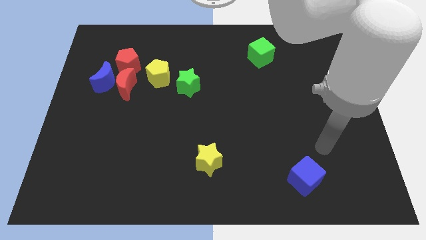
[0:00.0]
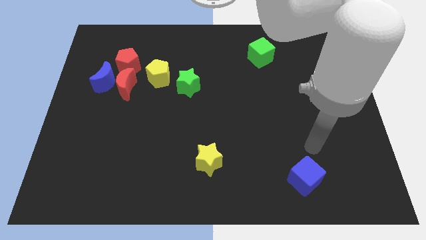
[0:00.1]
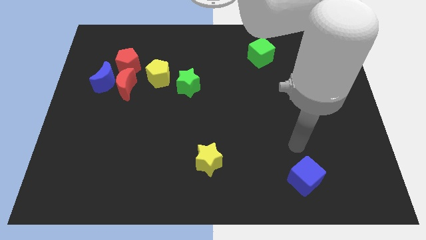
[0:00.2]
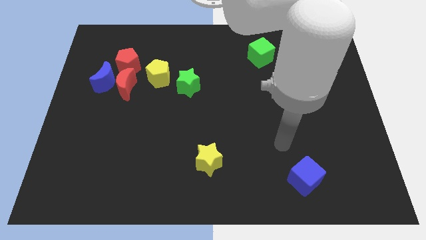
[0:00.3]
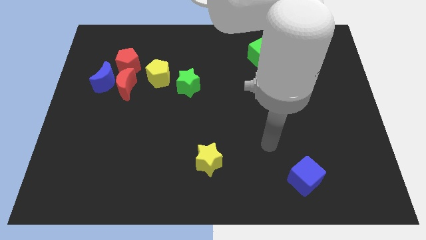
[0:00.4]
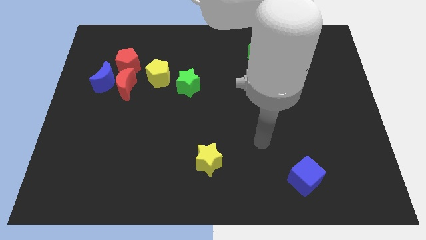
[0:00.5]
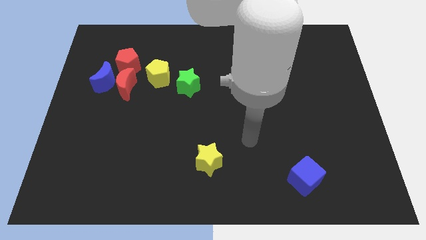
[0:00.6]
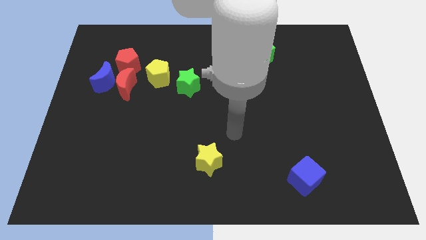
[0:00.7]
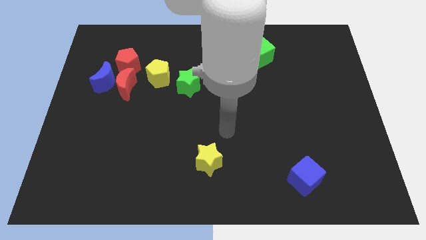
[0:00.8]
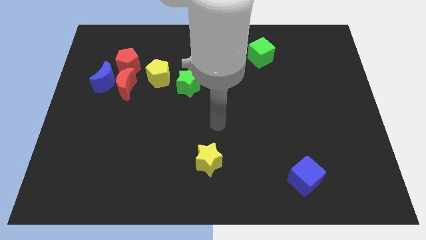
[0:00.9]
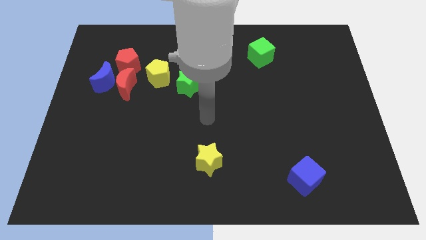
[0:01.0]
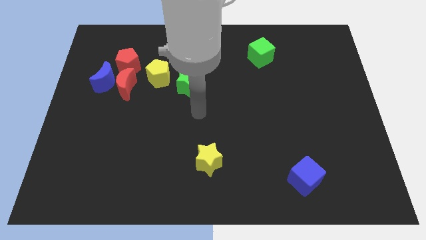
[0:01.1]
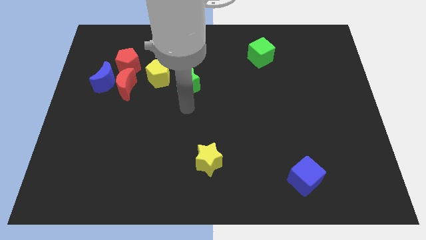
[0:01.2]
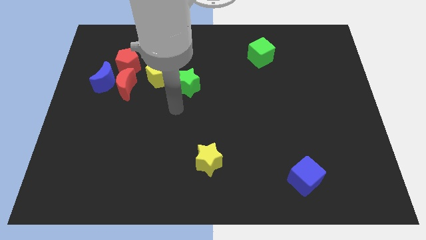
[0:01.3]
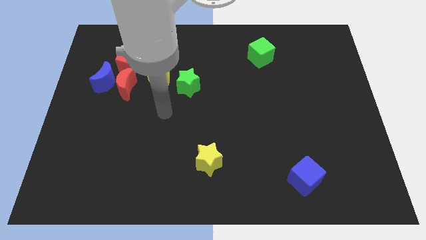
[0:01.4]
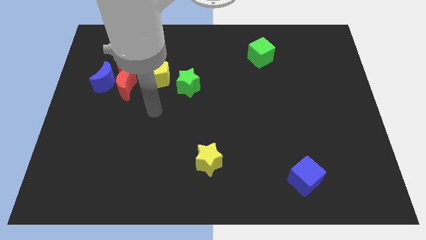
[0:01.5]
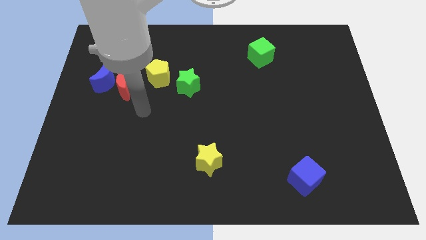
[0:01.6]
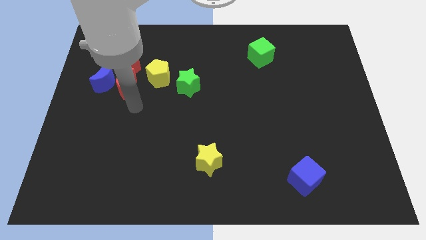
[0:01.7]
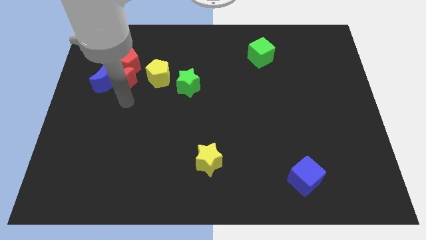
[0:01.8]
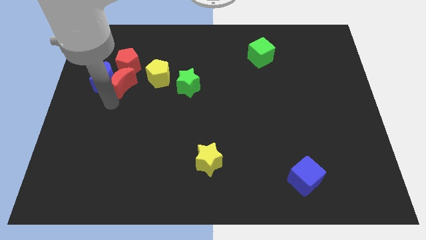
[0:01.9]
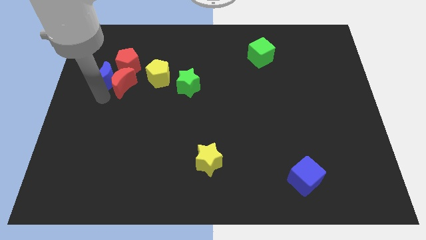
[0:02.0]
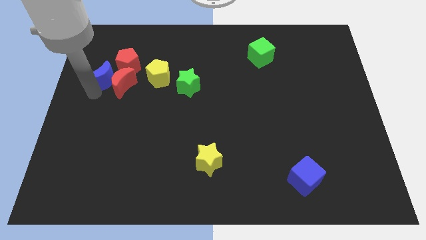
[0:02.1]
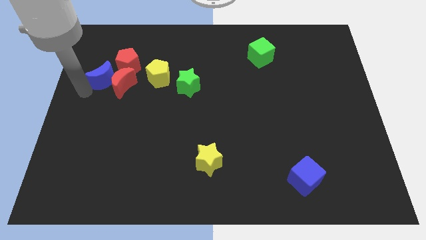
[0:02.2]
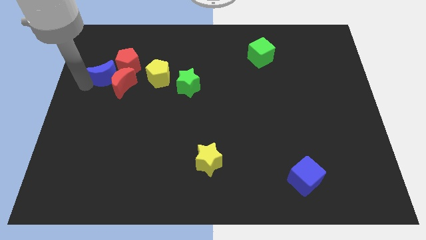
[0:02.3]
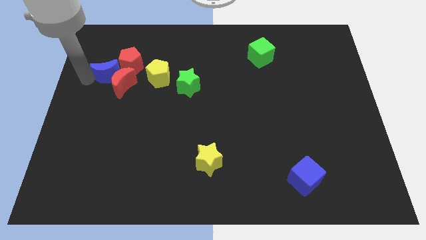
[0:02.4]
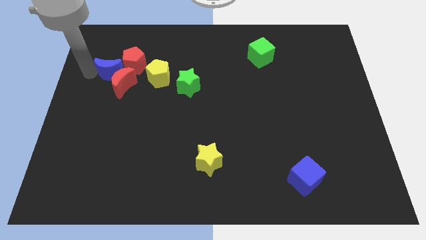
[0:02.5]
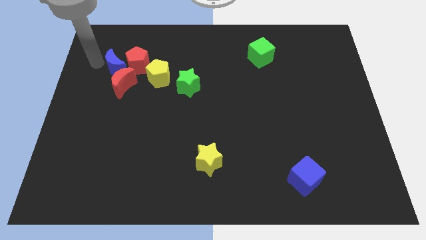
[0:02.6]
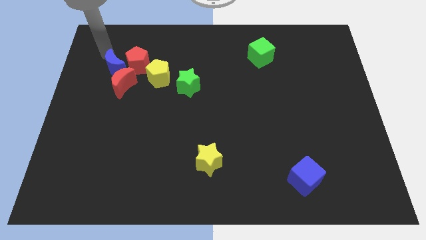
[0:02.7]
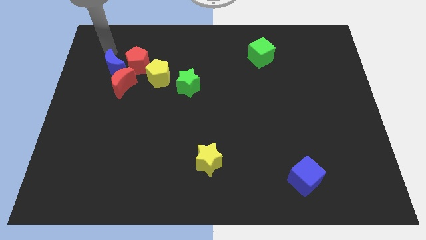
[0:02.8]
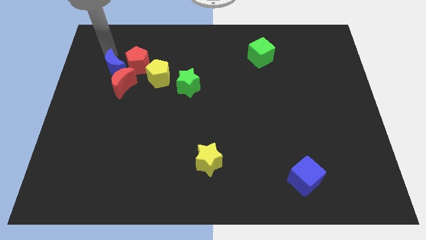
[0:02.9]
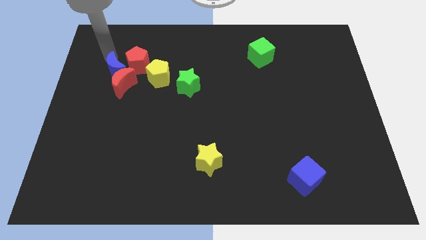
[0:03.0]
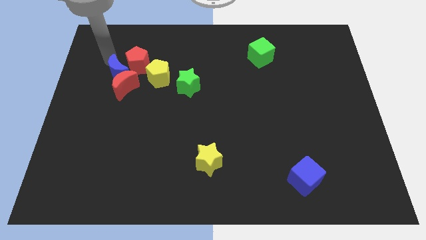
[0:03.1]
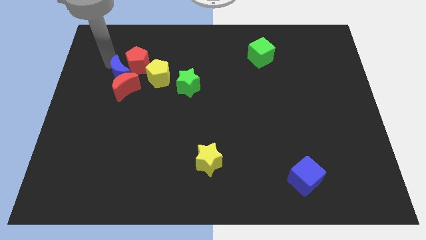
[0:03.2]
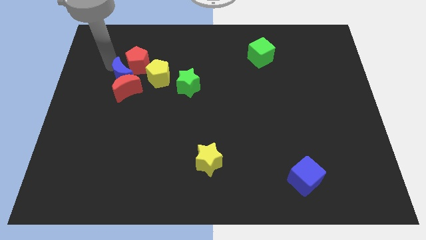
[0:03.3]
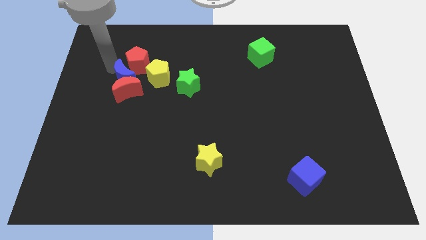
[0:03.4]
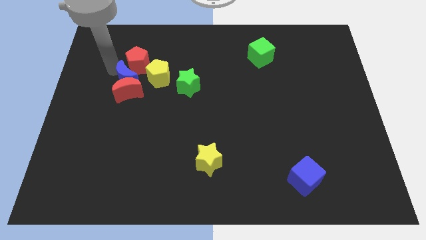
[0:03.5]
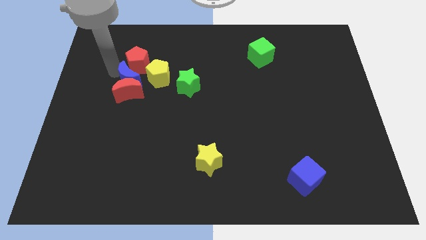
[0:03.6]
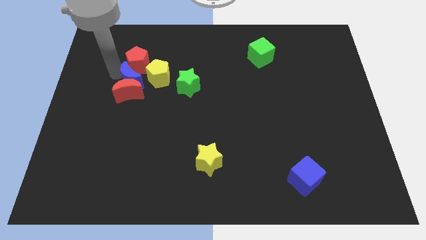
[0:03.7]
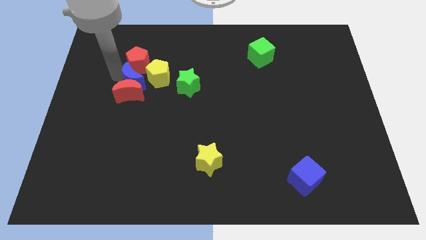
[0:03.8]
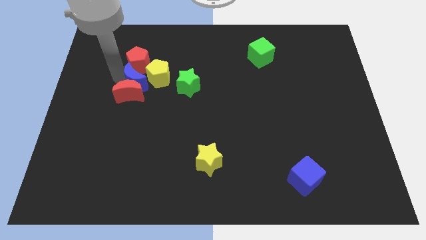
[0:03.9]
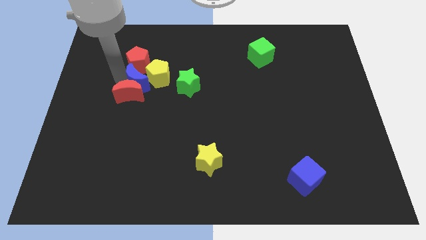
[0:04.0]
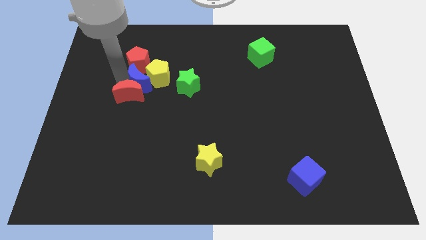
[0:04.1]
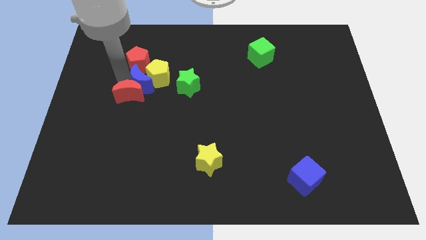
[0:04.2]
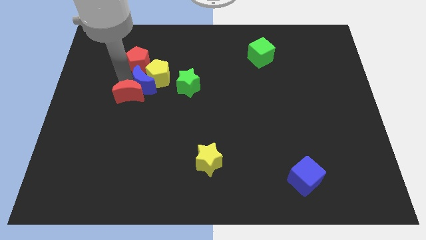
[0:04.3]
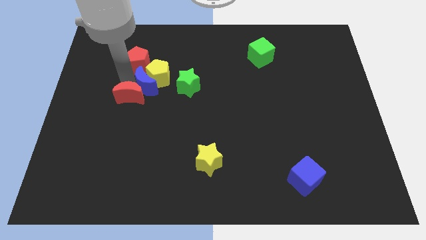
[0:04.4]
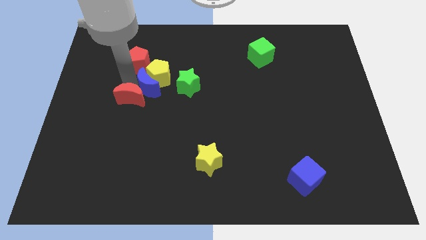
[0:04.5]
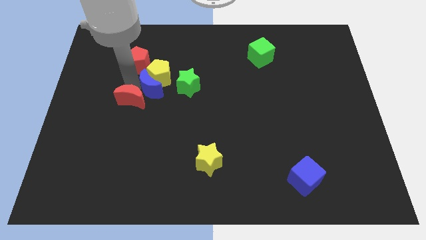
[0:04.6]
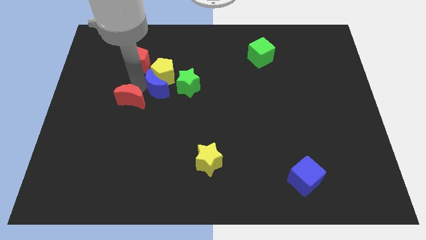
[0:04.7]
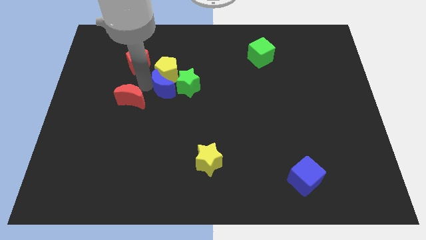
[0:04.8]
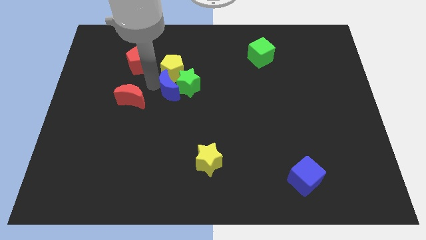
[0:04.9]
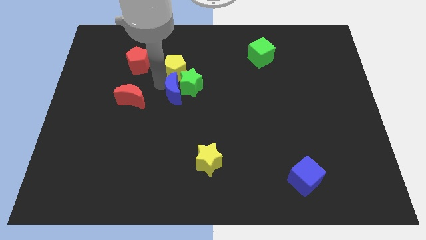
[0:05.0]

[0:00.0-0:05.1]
push the blue moon to the bottom side of the green star

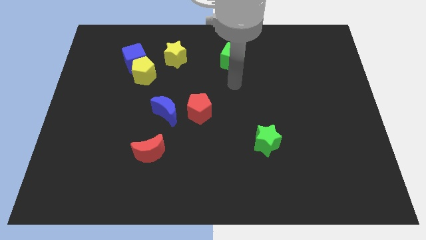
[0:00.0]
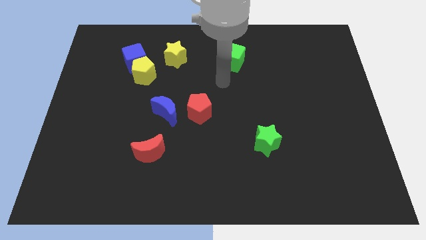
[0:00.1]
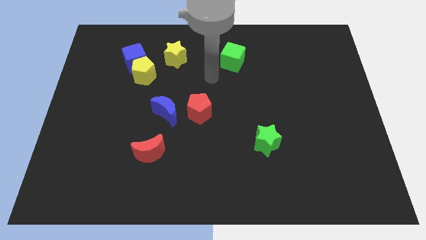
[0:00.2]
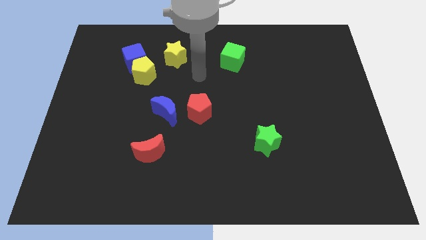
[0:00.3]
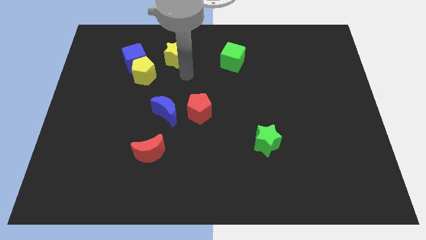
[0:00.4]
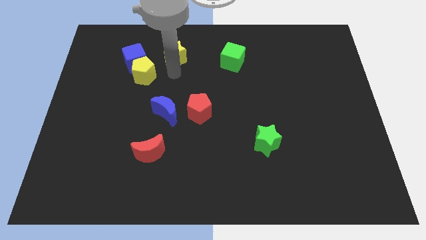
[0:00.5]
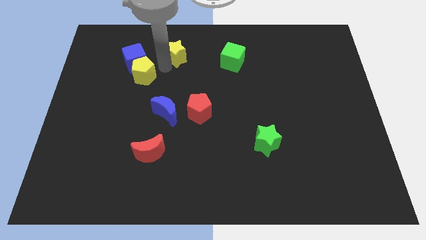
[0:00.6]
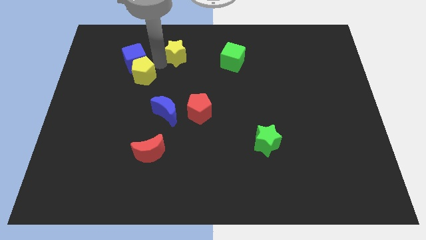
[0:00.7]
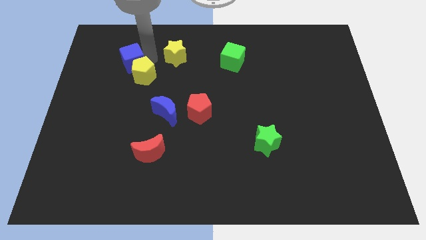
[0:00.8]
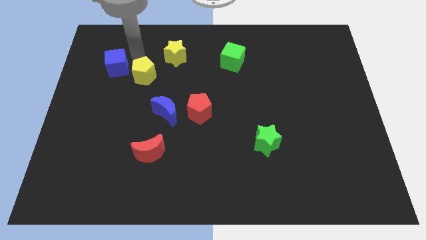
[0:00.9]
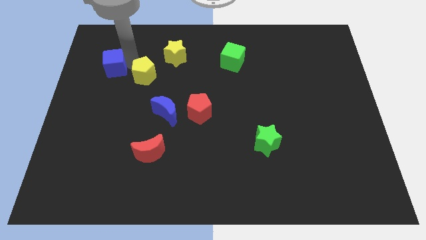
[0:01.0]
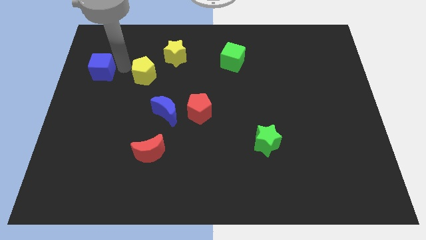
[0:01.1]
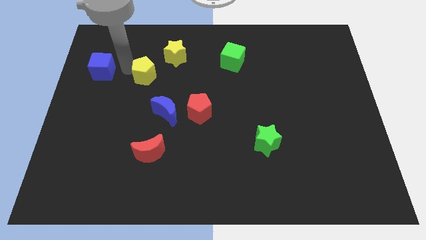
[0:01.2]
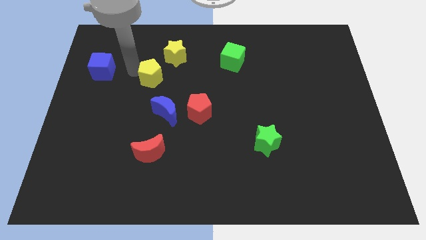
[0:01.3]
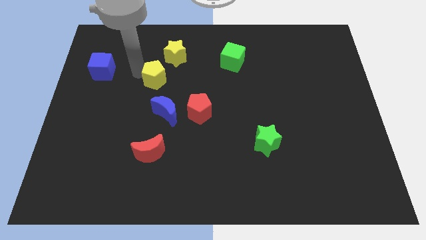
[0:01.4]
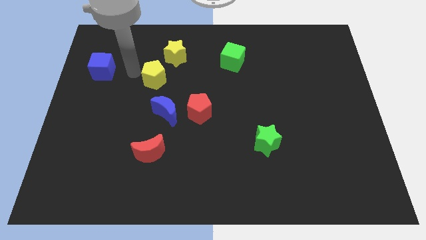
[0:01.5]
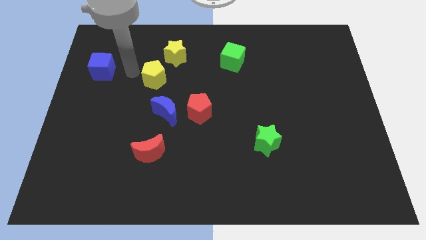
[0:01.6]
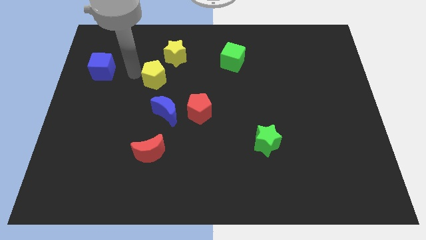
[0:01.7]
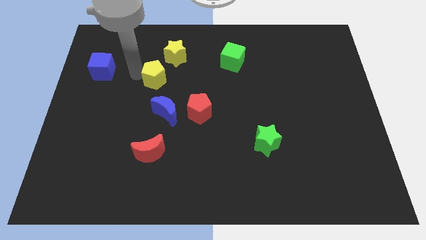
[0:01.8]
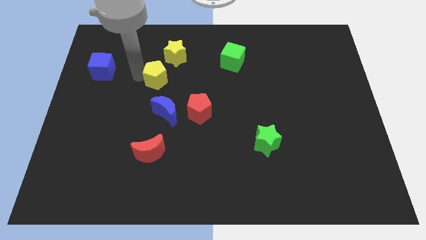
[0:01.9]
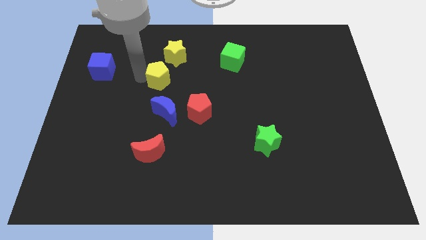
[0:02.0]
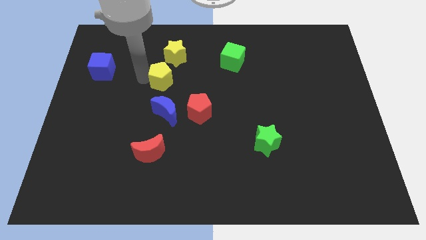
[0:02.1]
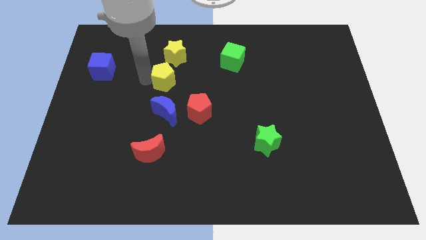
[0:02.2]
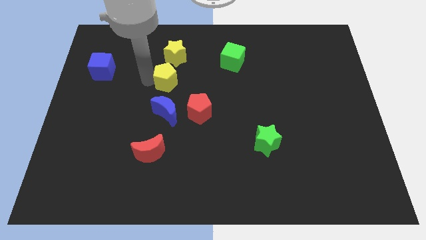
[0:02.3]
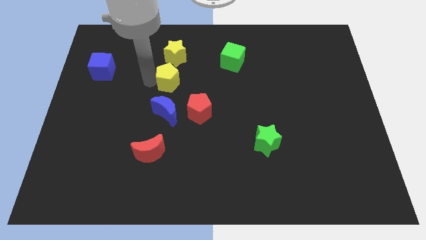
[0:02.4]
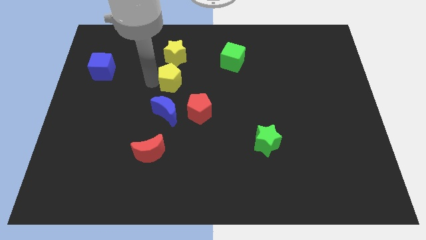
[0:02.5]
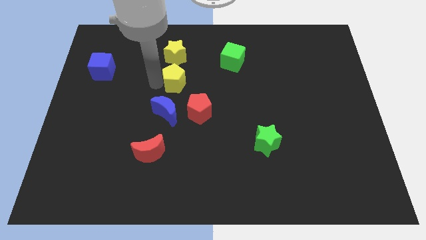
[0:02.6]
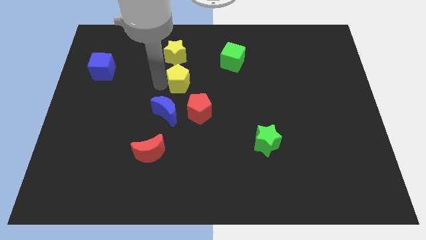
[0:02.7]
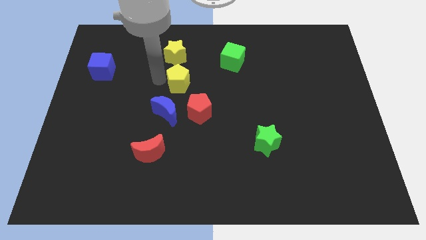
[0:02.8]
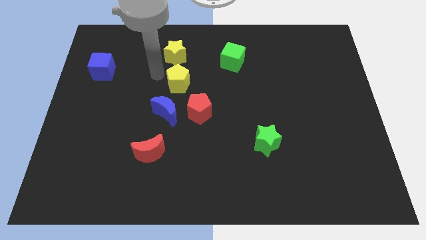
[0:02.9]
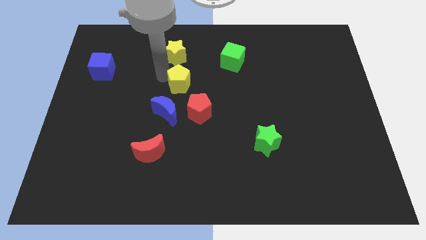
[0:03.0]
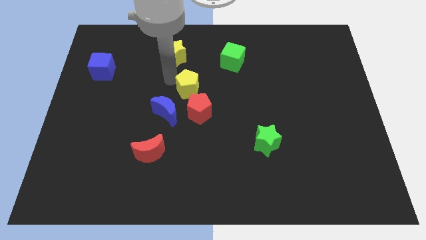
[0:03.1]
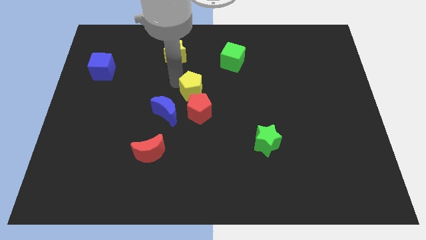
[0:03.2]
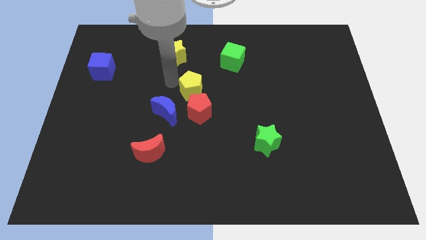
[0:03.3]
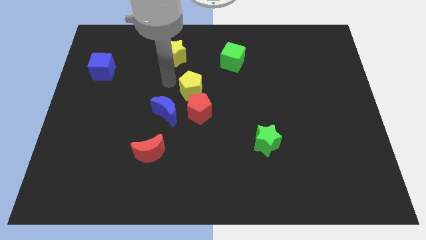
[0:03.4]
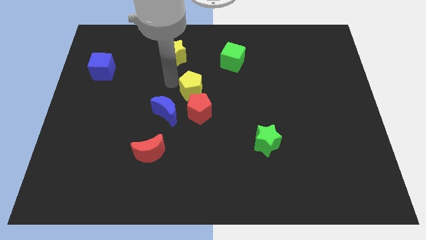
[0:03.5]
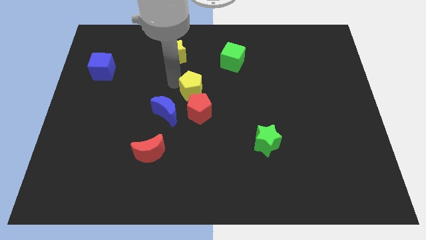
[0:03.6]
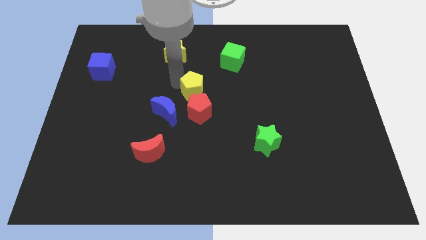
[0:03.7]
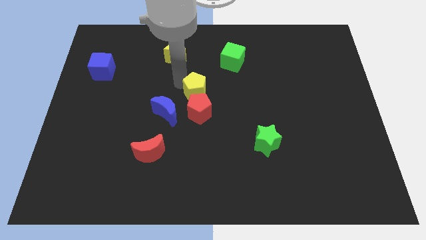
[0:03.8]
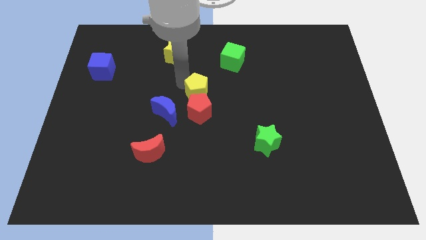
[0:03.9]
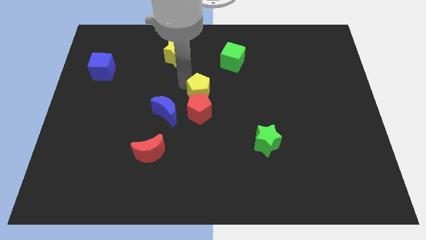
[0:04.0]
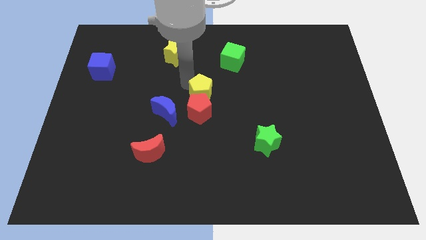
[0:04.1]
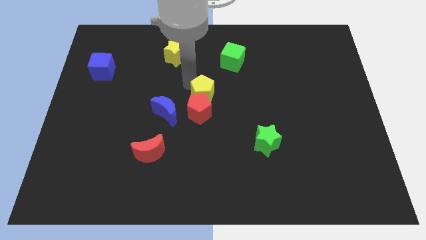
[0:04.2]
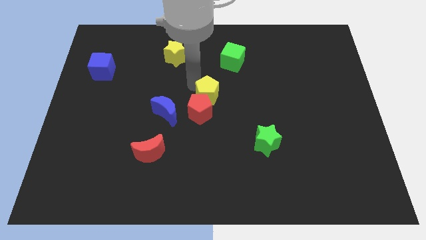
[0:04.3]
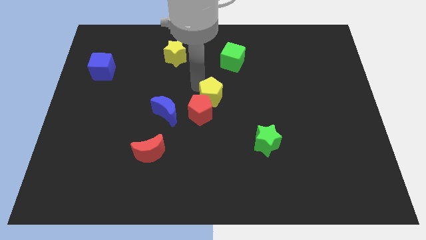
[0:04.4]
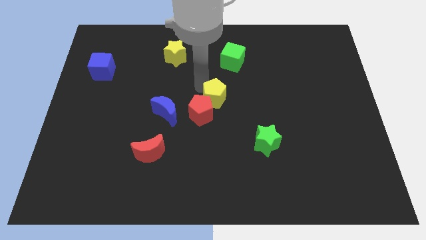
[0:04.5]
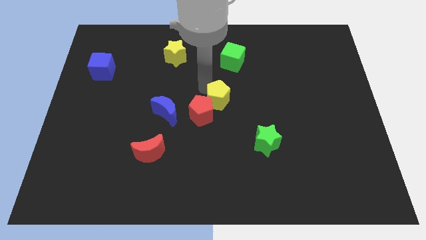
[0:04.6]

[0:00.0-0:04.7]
put the yellow pentagon just right of the red pentagon
